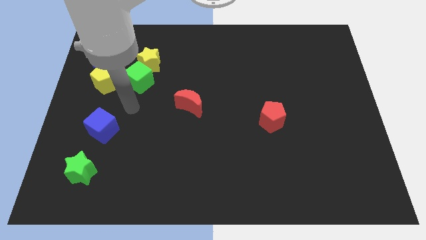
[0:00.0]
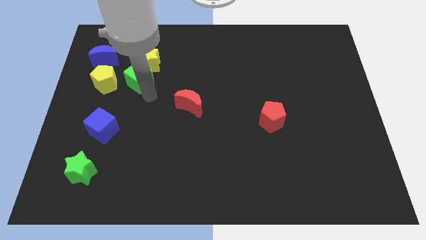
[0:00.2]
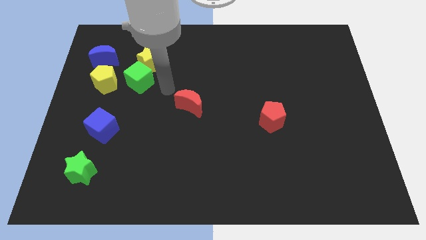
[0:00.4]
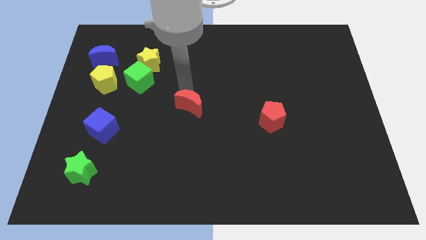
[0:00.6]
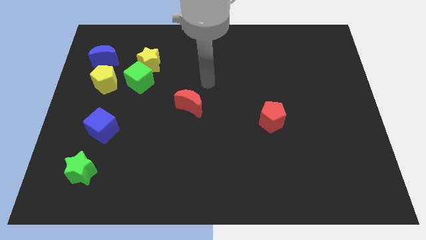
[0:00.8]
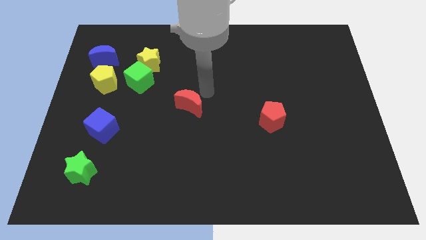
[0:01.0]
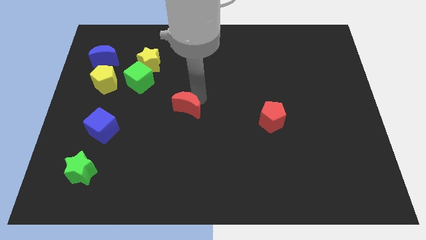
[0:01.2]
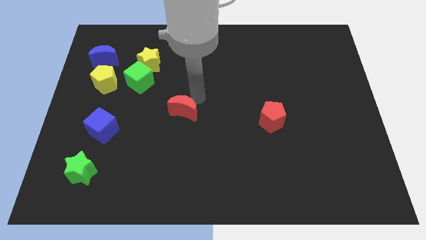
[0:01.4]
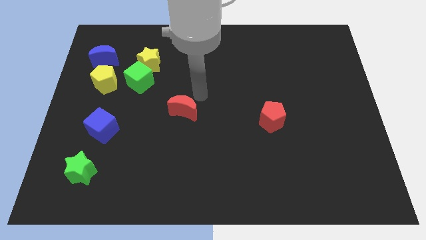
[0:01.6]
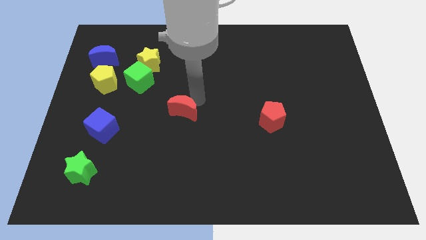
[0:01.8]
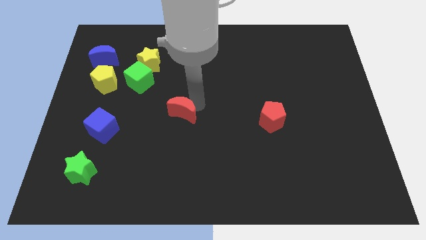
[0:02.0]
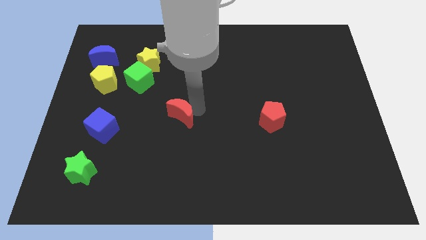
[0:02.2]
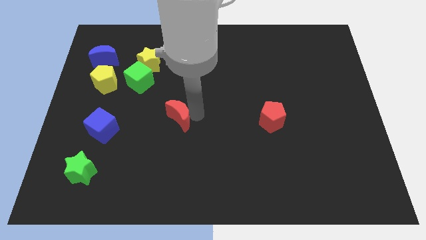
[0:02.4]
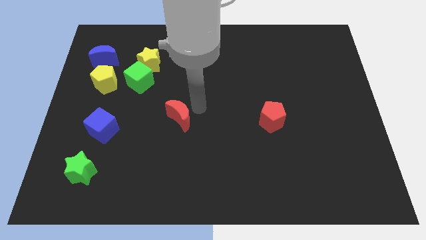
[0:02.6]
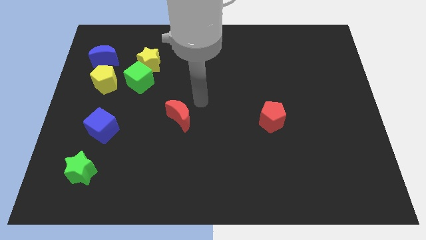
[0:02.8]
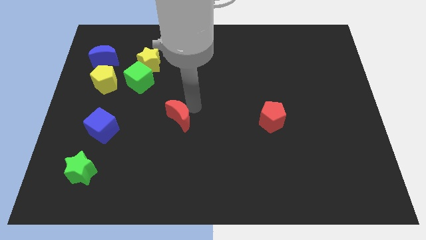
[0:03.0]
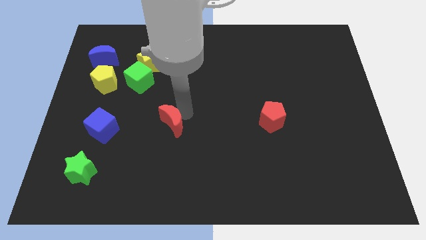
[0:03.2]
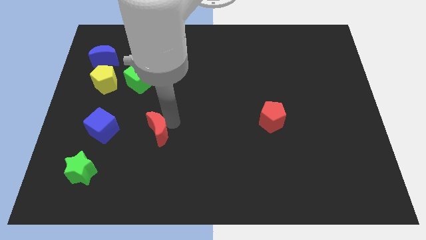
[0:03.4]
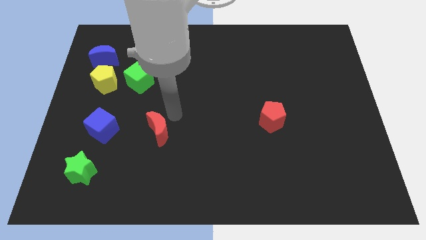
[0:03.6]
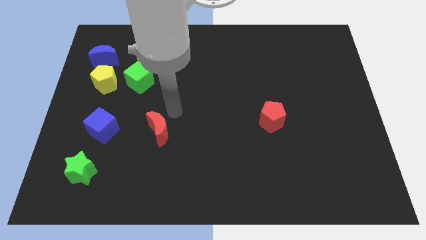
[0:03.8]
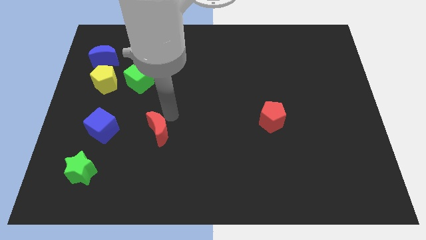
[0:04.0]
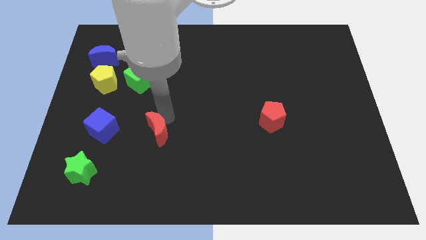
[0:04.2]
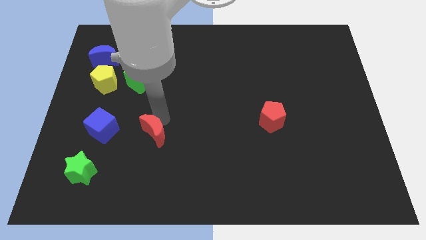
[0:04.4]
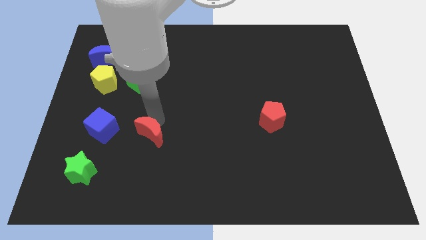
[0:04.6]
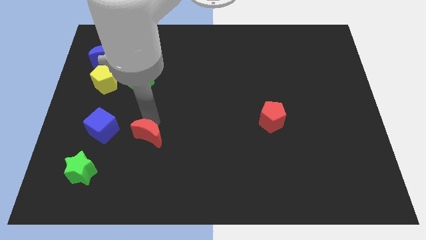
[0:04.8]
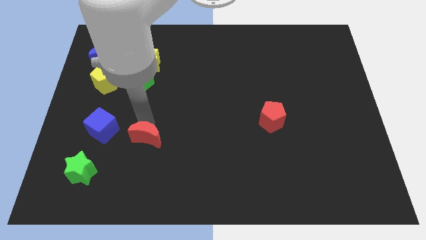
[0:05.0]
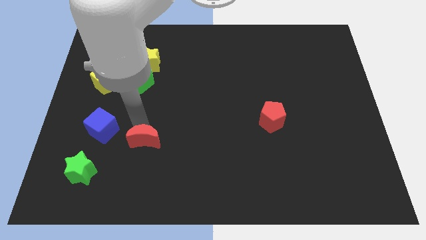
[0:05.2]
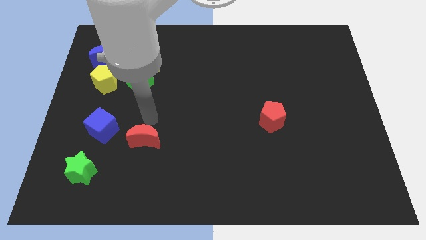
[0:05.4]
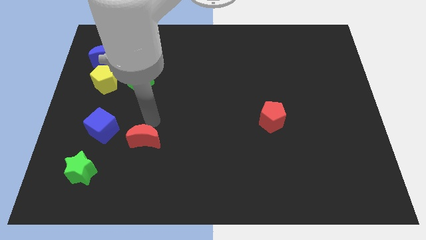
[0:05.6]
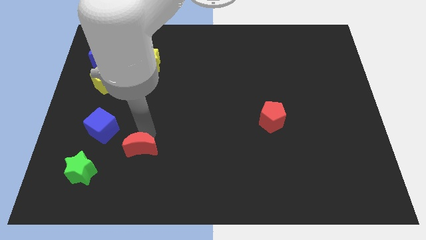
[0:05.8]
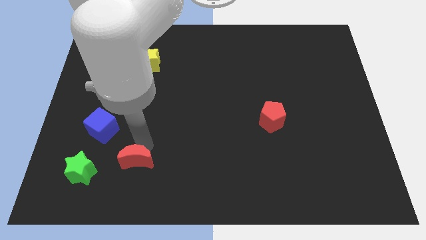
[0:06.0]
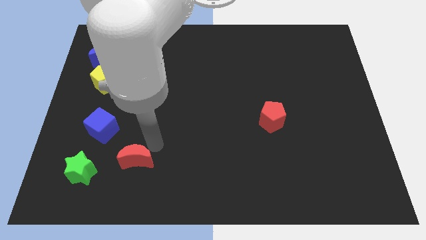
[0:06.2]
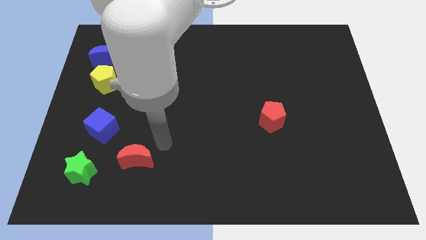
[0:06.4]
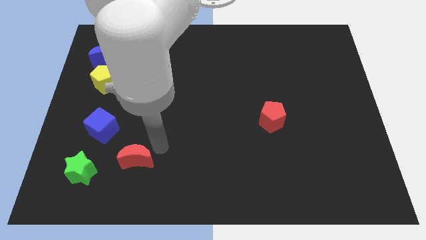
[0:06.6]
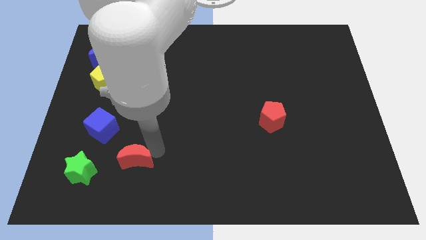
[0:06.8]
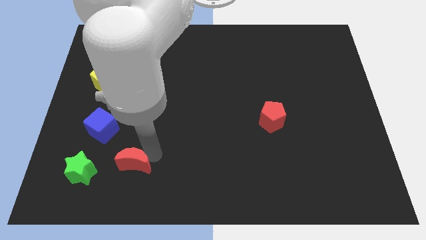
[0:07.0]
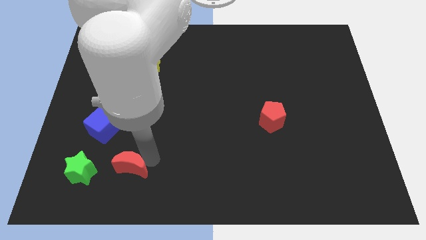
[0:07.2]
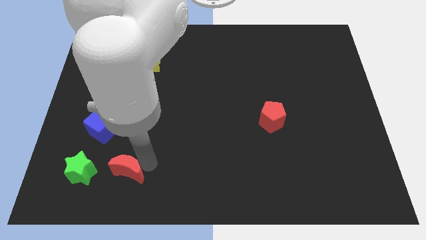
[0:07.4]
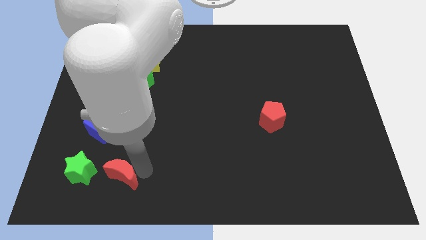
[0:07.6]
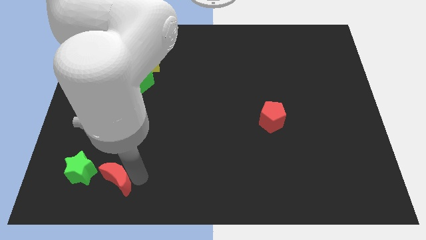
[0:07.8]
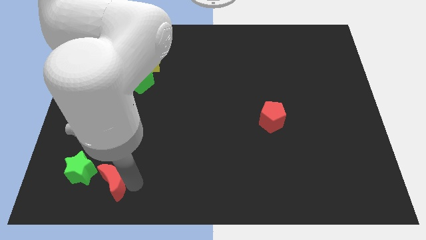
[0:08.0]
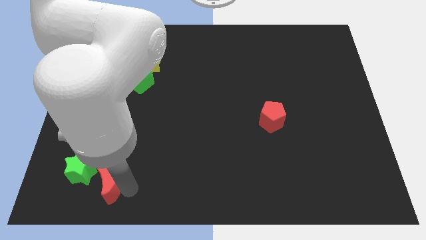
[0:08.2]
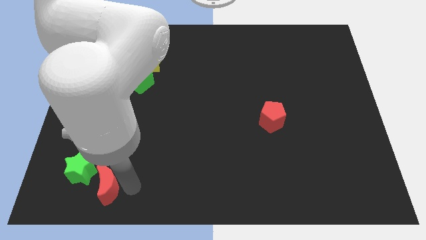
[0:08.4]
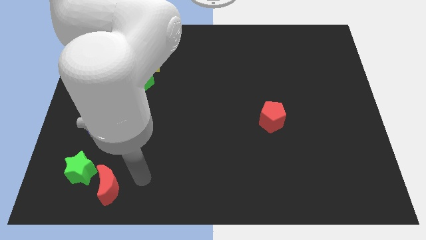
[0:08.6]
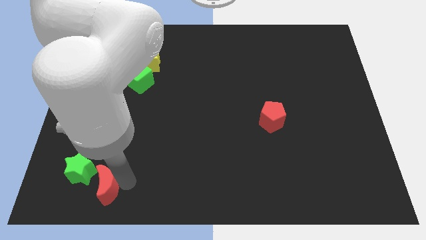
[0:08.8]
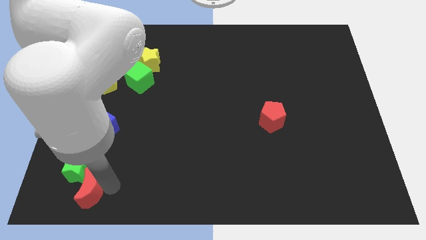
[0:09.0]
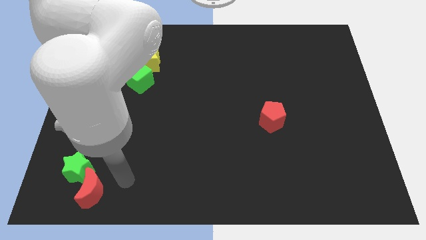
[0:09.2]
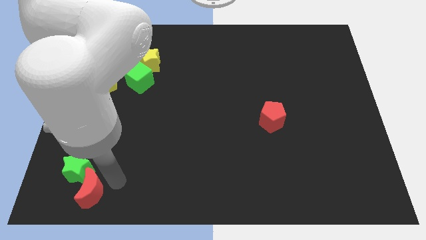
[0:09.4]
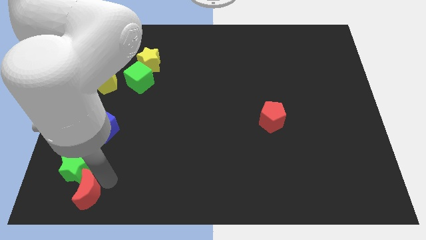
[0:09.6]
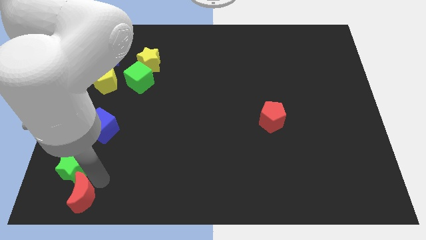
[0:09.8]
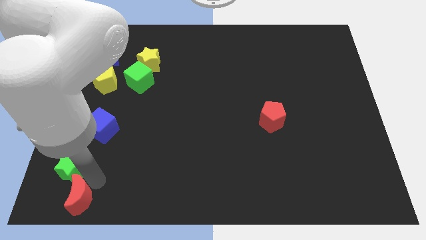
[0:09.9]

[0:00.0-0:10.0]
push the red moon to the bottom left

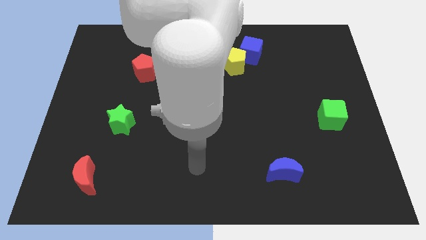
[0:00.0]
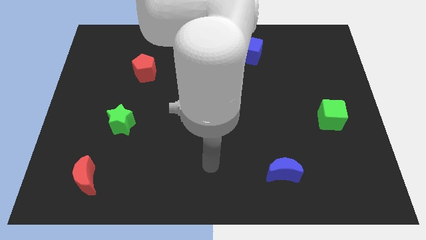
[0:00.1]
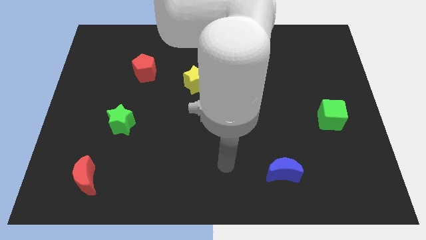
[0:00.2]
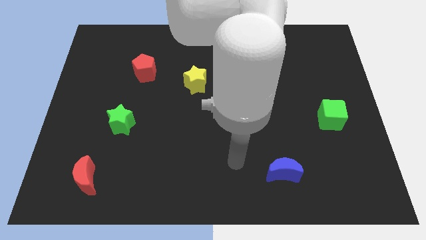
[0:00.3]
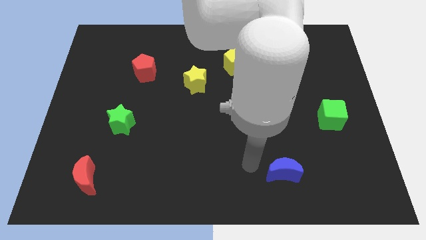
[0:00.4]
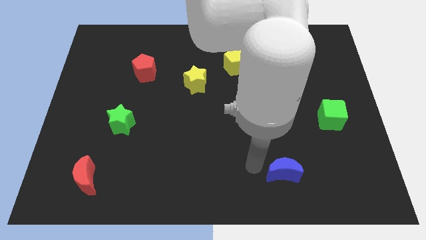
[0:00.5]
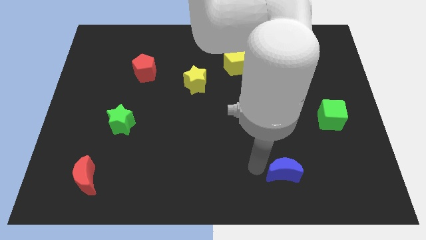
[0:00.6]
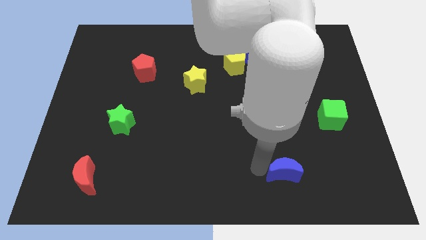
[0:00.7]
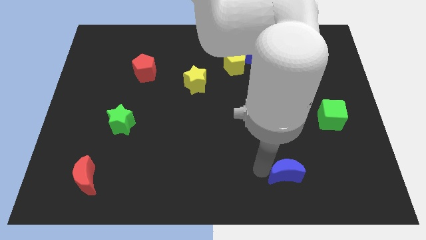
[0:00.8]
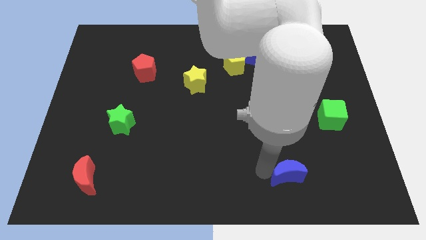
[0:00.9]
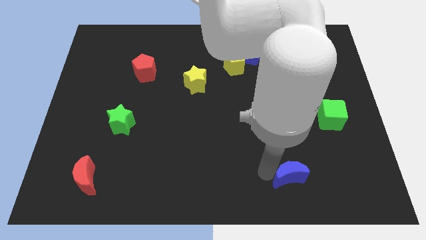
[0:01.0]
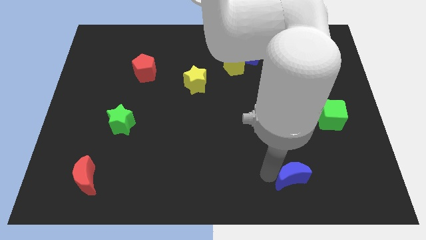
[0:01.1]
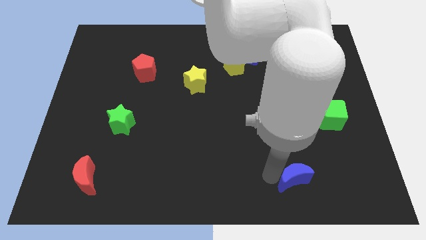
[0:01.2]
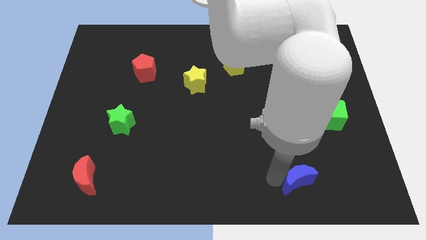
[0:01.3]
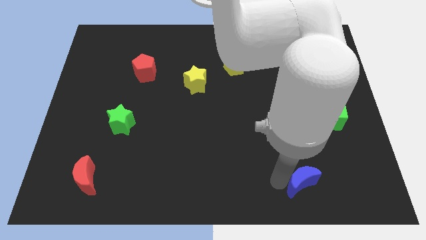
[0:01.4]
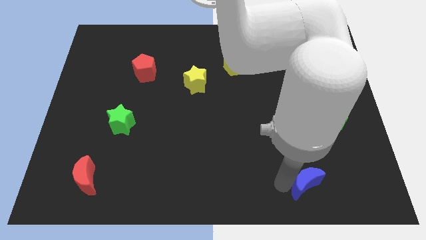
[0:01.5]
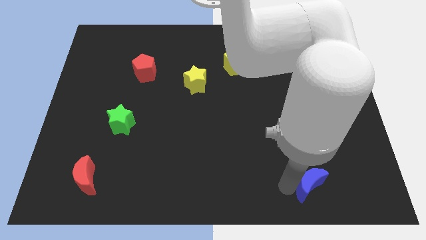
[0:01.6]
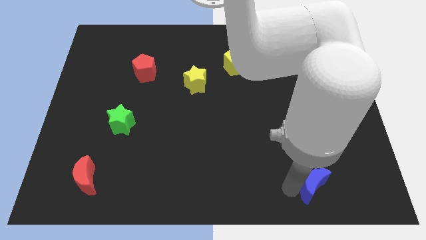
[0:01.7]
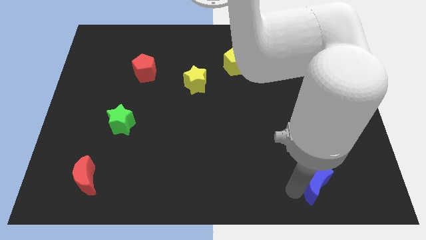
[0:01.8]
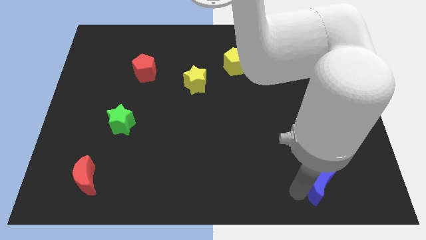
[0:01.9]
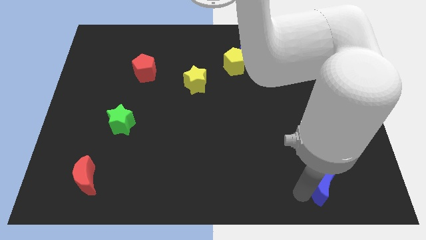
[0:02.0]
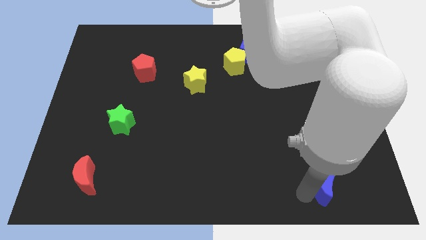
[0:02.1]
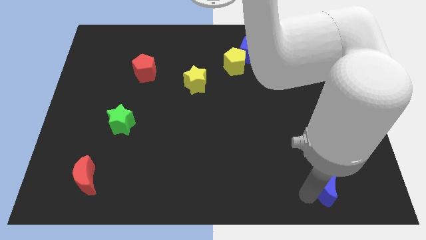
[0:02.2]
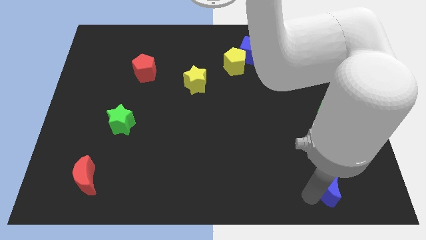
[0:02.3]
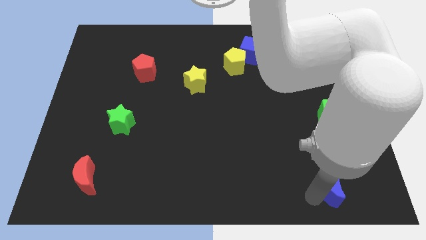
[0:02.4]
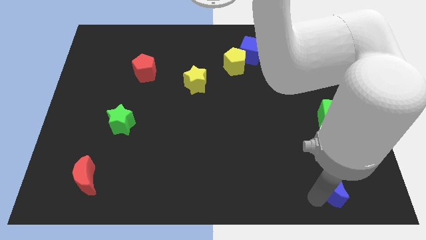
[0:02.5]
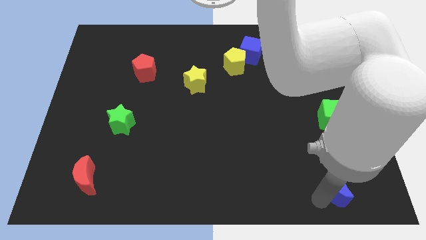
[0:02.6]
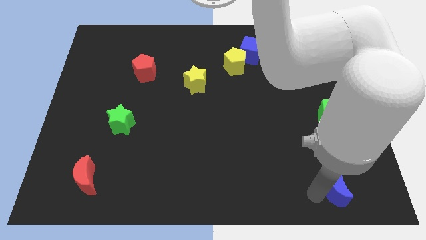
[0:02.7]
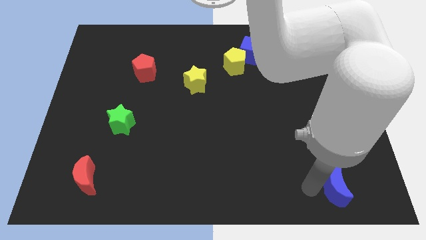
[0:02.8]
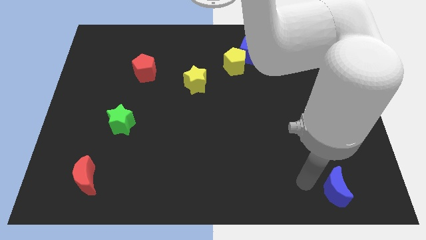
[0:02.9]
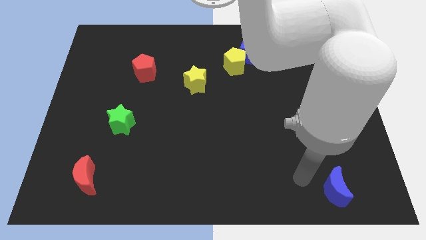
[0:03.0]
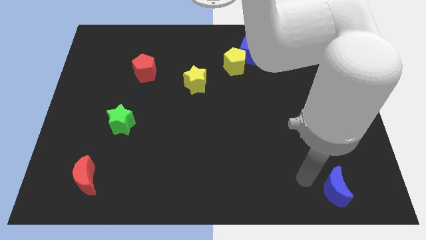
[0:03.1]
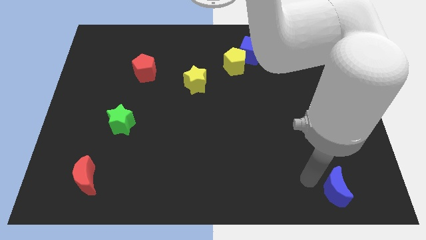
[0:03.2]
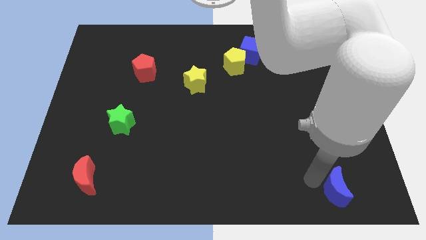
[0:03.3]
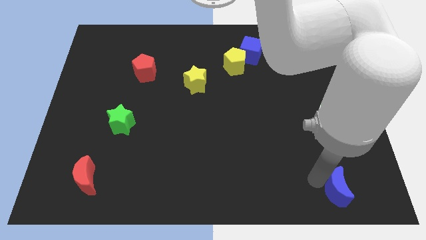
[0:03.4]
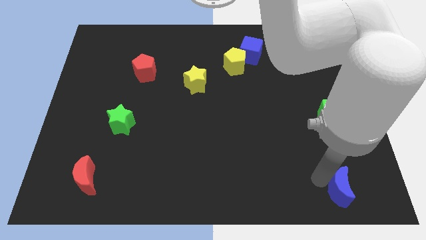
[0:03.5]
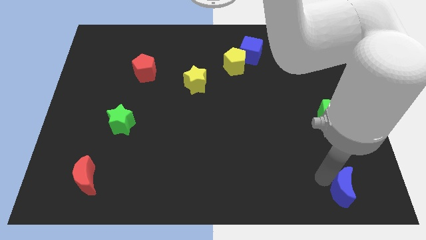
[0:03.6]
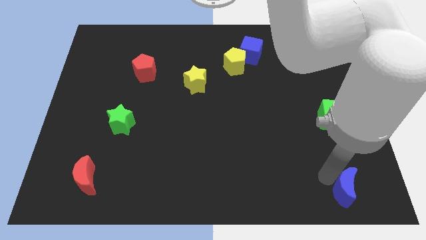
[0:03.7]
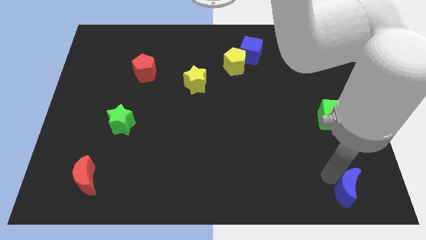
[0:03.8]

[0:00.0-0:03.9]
push the blue moon to the bottom right
